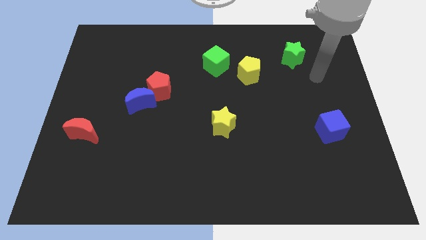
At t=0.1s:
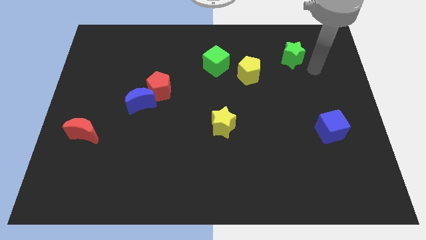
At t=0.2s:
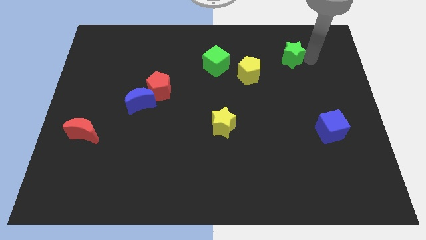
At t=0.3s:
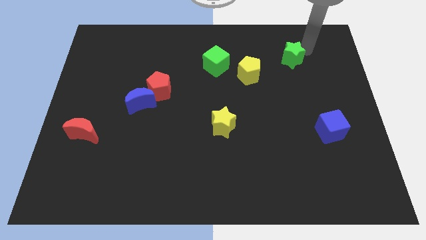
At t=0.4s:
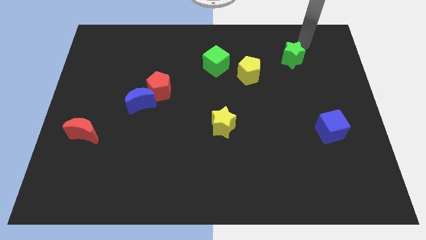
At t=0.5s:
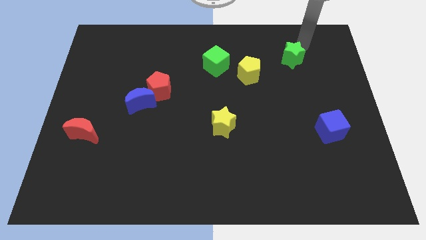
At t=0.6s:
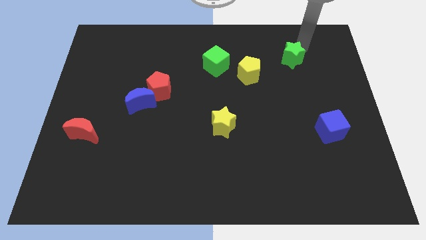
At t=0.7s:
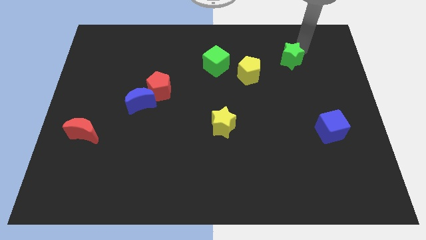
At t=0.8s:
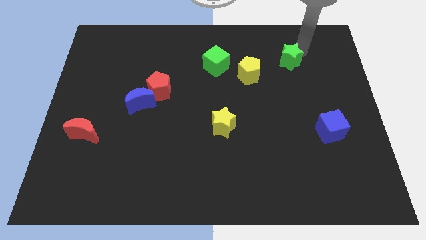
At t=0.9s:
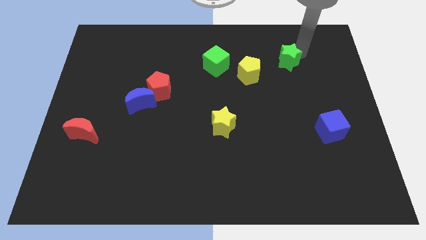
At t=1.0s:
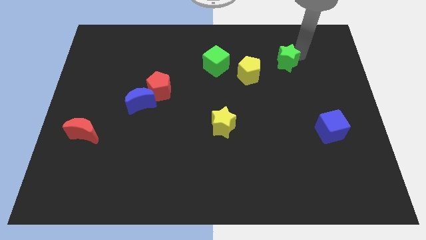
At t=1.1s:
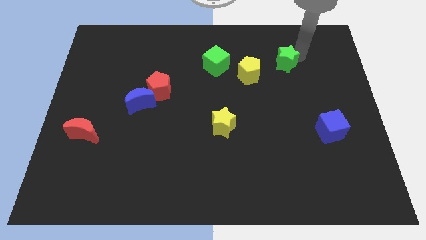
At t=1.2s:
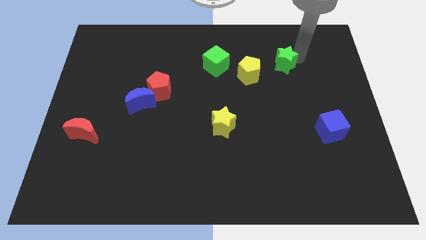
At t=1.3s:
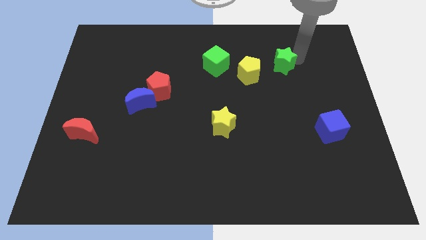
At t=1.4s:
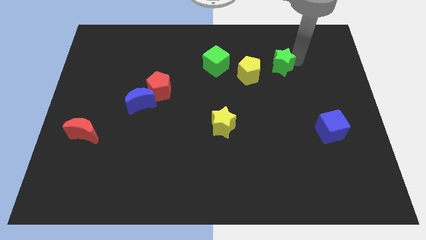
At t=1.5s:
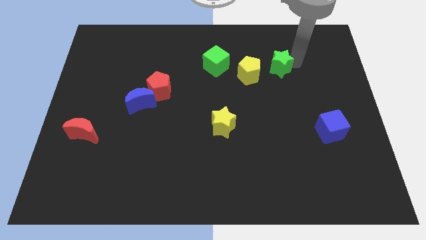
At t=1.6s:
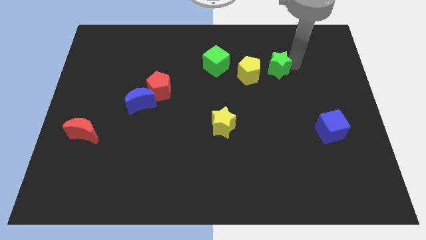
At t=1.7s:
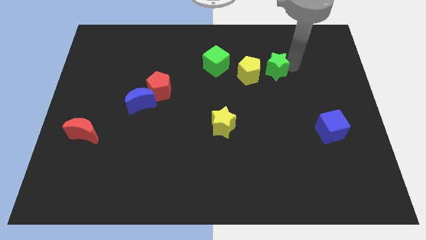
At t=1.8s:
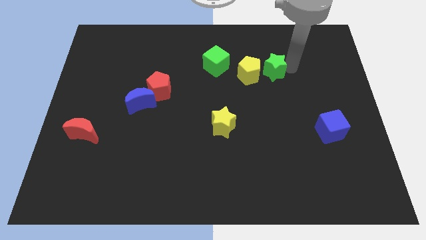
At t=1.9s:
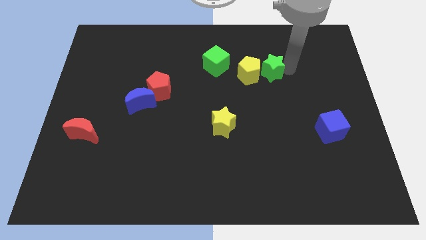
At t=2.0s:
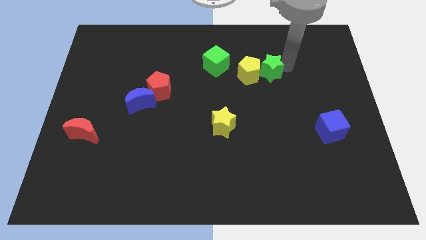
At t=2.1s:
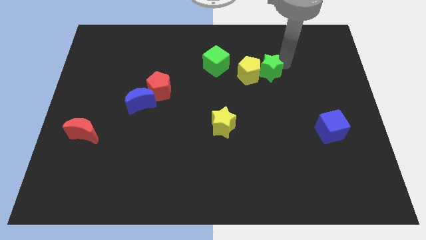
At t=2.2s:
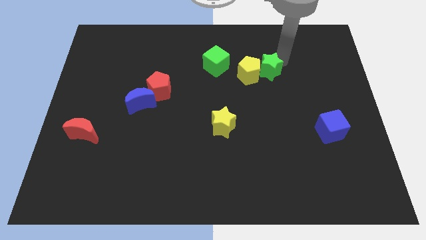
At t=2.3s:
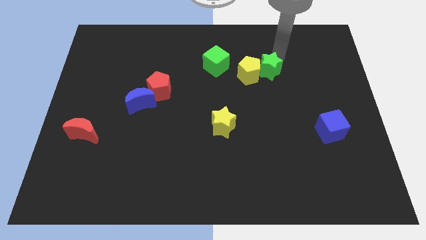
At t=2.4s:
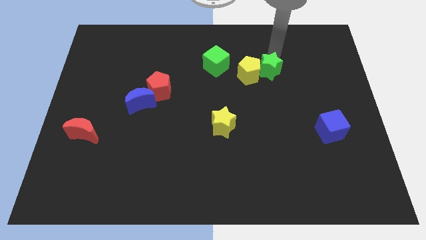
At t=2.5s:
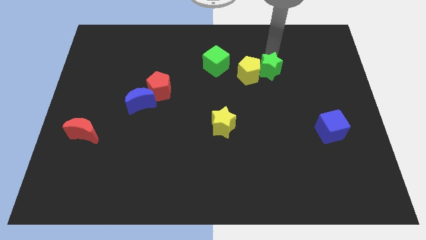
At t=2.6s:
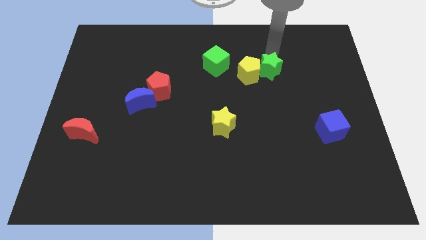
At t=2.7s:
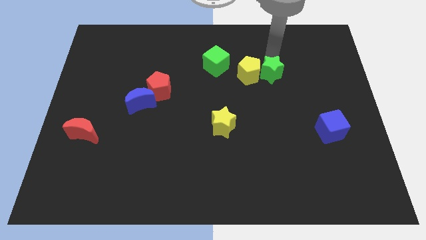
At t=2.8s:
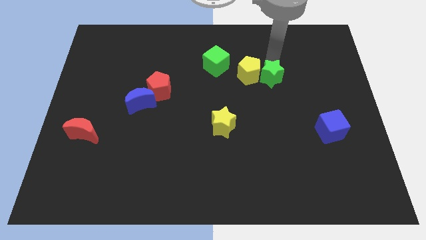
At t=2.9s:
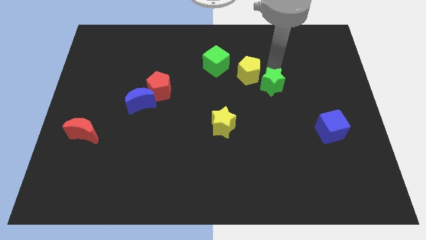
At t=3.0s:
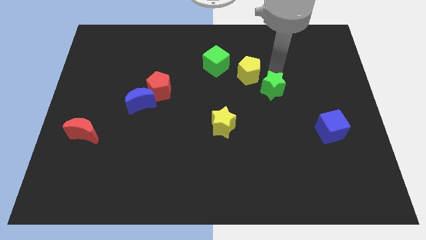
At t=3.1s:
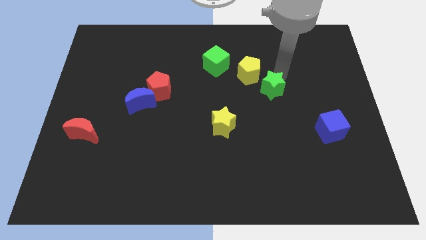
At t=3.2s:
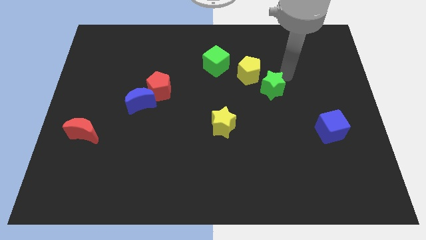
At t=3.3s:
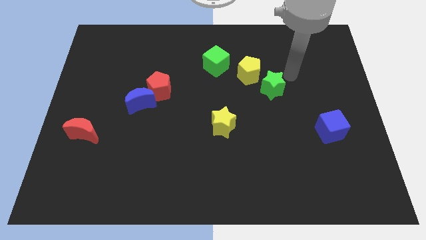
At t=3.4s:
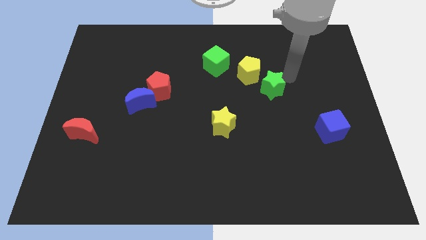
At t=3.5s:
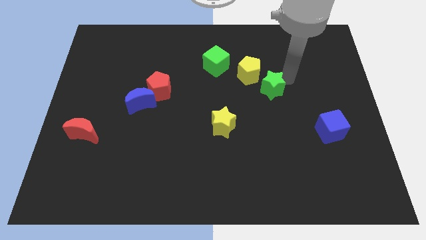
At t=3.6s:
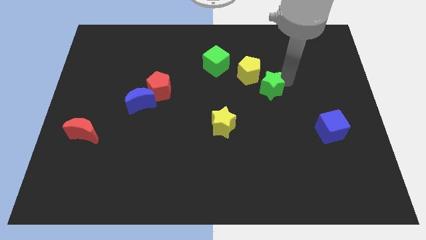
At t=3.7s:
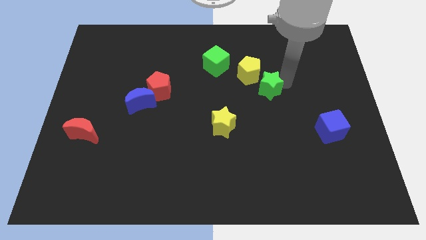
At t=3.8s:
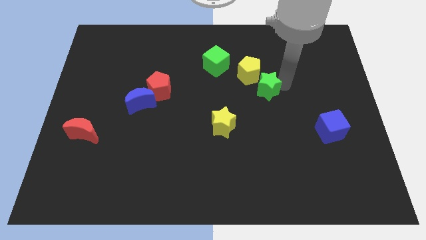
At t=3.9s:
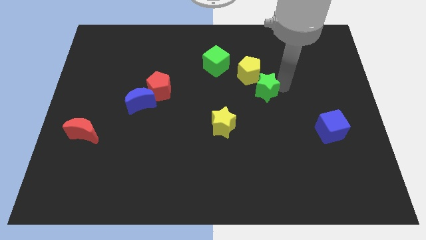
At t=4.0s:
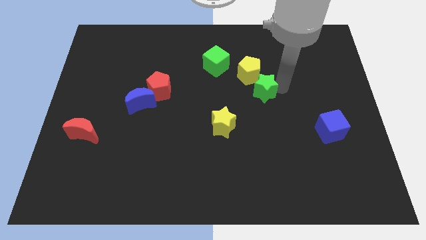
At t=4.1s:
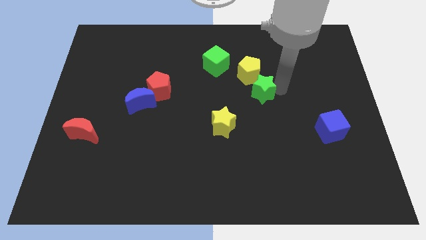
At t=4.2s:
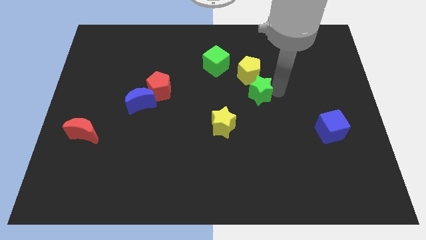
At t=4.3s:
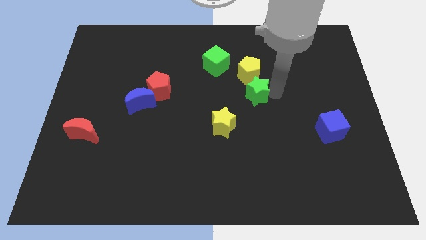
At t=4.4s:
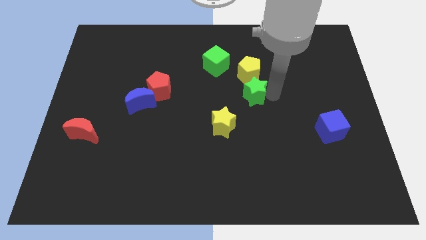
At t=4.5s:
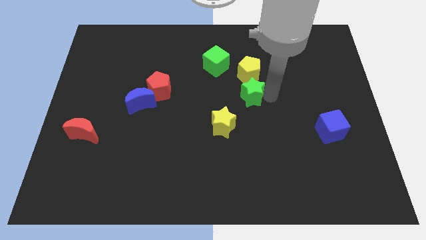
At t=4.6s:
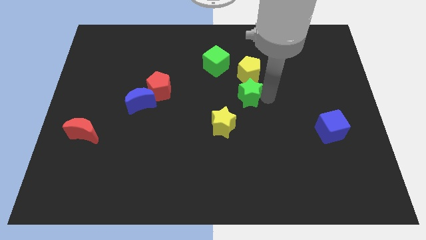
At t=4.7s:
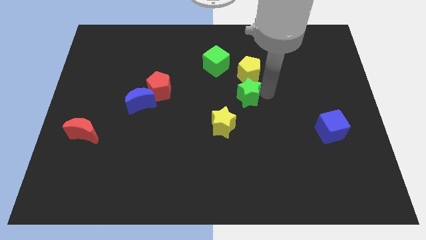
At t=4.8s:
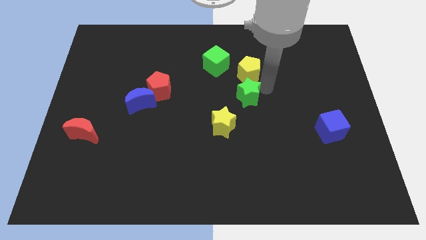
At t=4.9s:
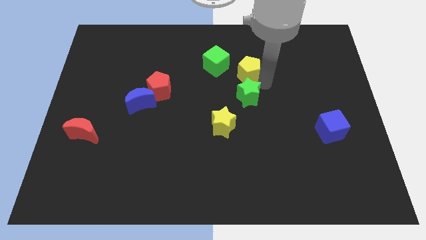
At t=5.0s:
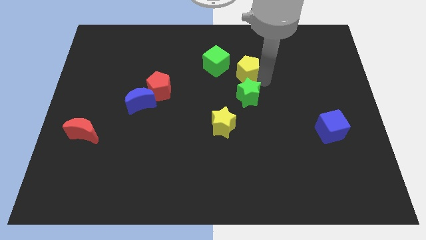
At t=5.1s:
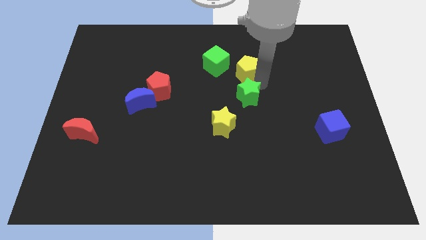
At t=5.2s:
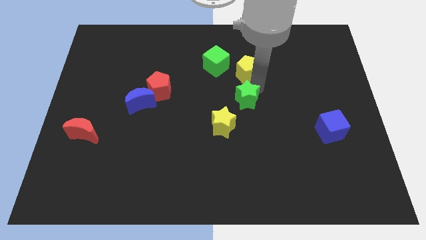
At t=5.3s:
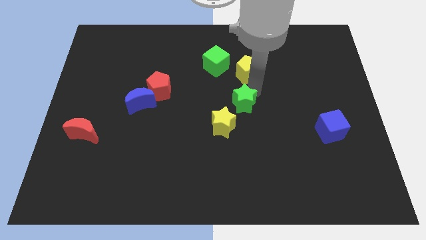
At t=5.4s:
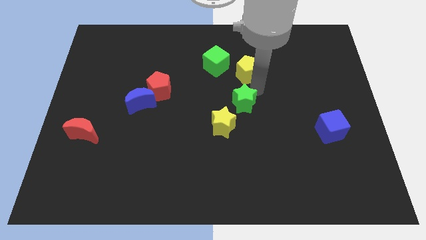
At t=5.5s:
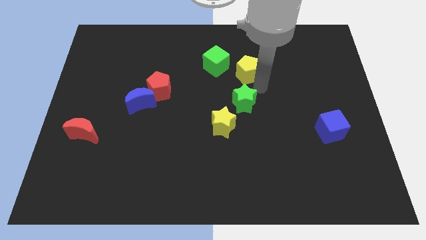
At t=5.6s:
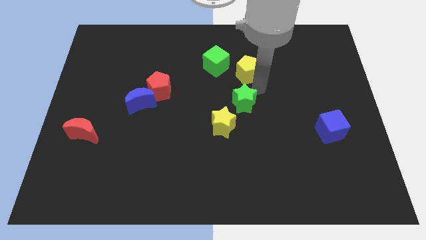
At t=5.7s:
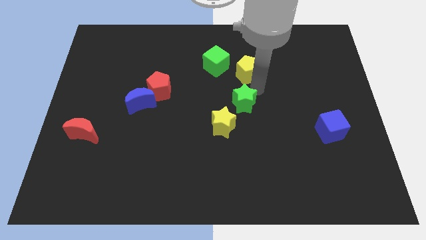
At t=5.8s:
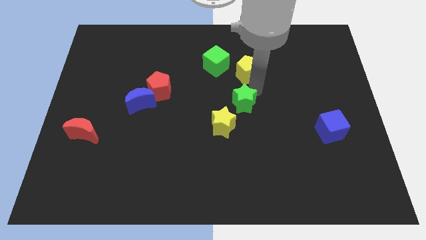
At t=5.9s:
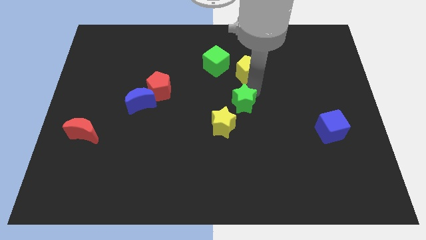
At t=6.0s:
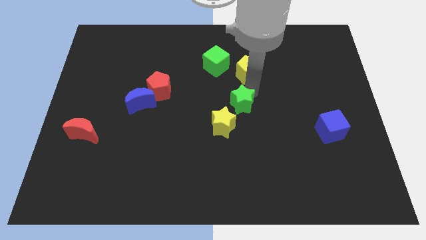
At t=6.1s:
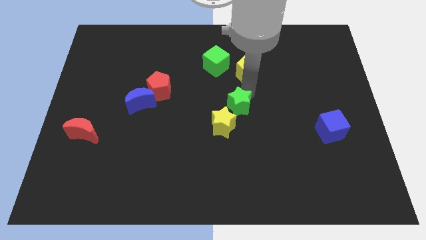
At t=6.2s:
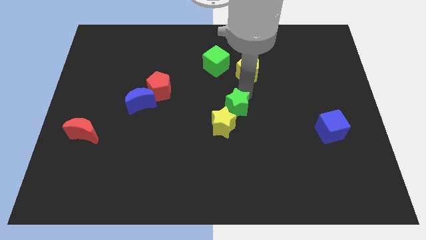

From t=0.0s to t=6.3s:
slide the green star close to the yellow star

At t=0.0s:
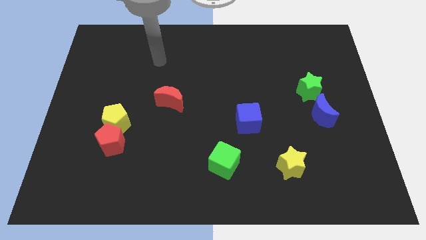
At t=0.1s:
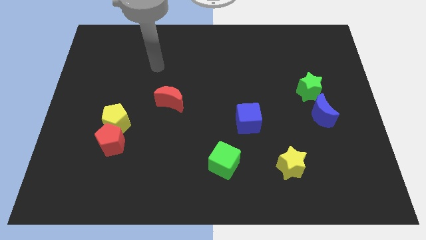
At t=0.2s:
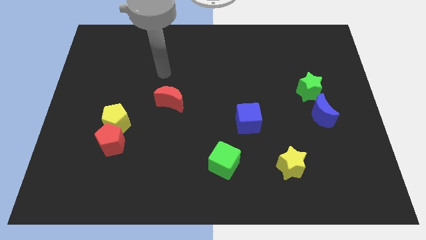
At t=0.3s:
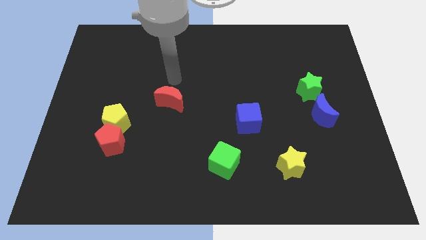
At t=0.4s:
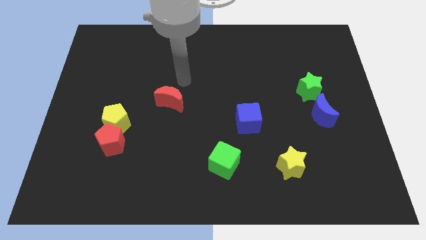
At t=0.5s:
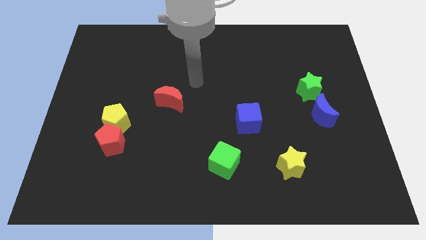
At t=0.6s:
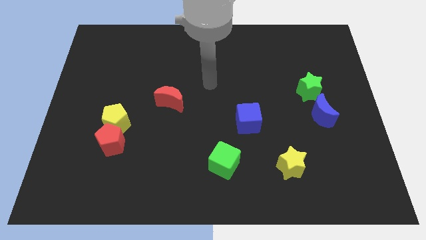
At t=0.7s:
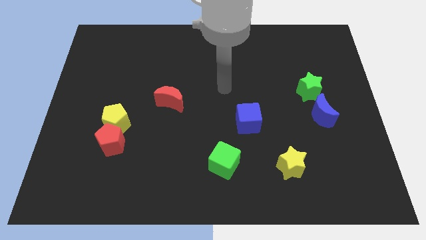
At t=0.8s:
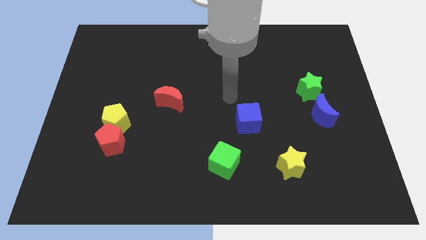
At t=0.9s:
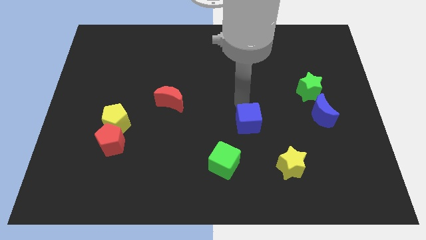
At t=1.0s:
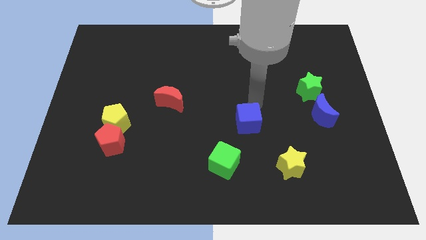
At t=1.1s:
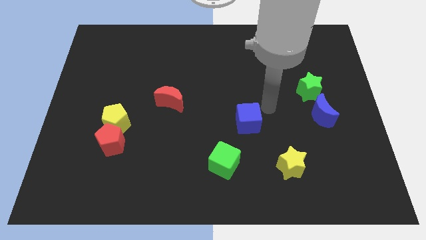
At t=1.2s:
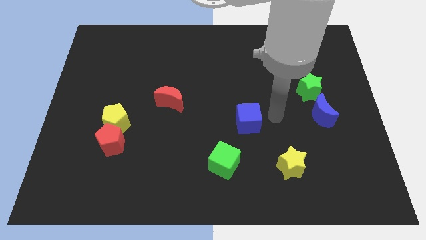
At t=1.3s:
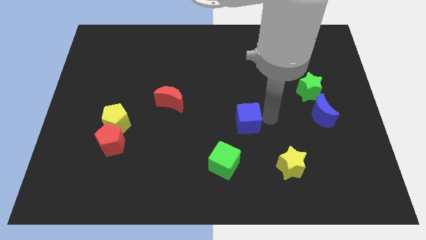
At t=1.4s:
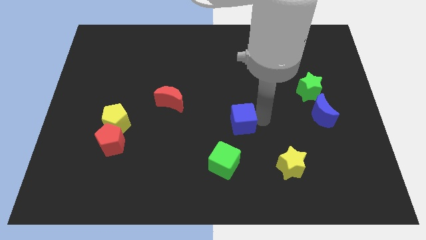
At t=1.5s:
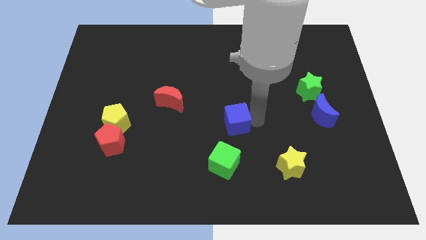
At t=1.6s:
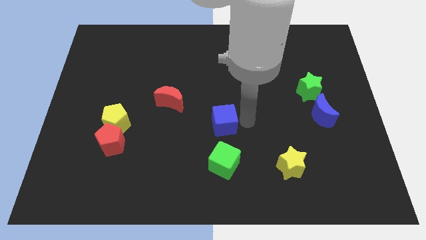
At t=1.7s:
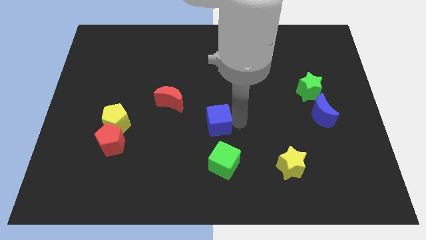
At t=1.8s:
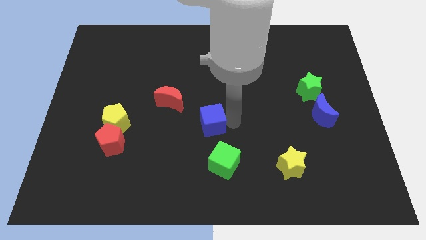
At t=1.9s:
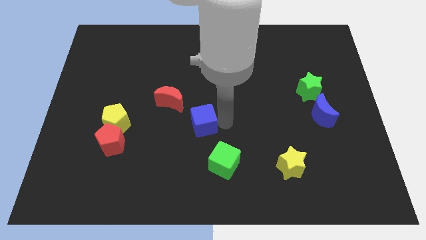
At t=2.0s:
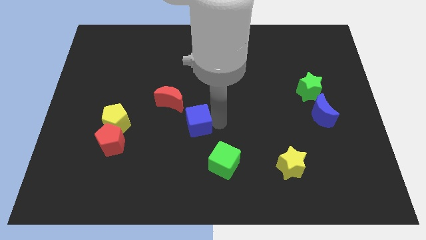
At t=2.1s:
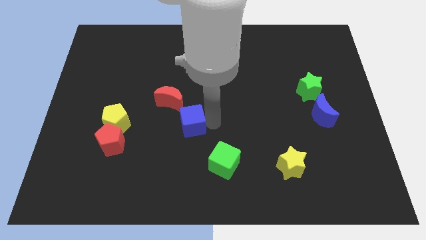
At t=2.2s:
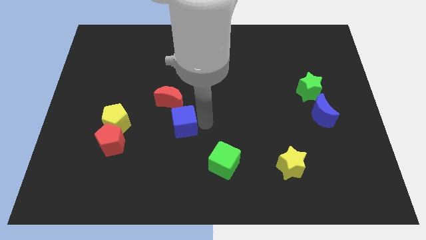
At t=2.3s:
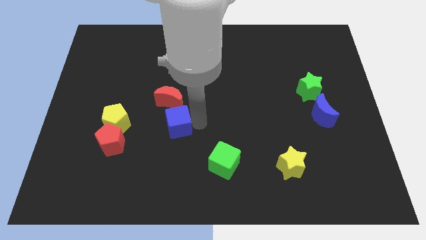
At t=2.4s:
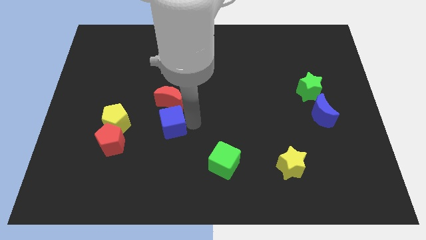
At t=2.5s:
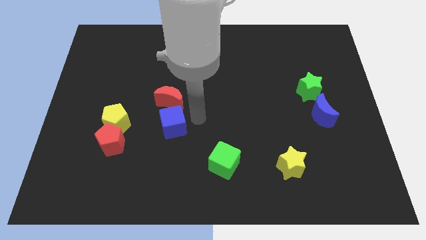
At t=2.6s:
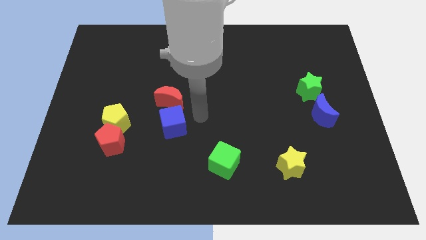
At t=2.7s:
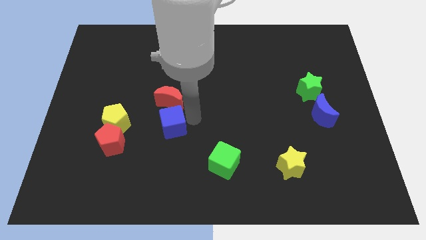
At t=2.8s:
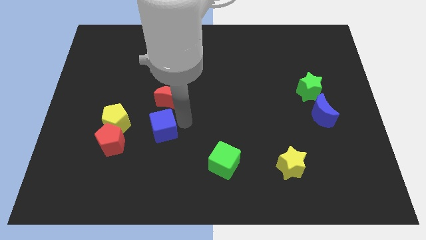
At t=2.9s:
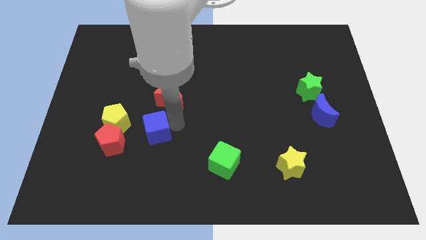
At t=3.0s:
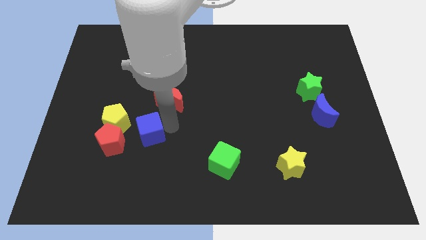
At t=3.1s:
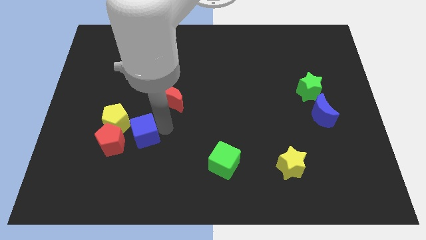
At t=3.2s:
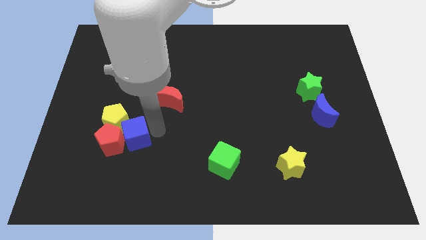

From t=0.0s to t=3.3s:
slide the blue cube to the red pentagon
